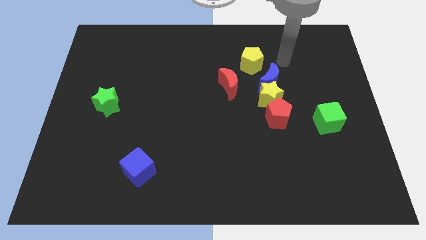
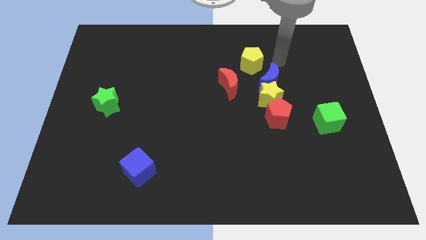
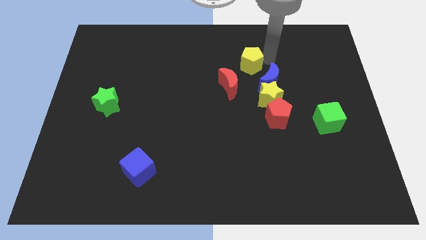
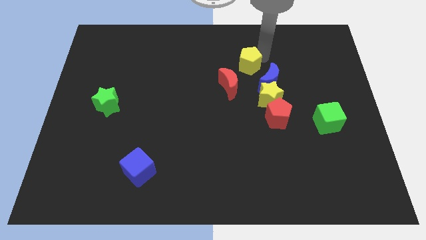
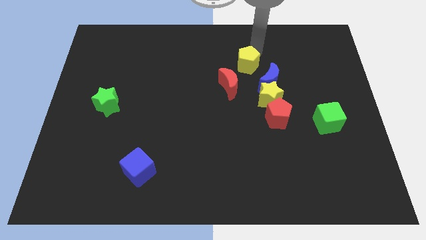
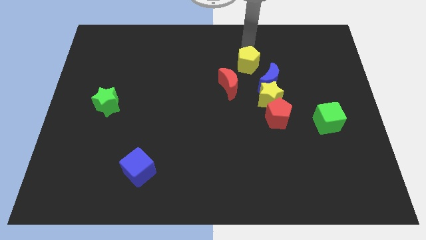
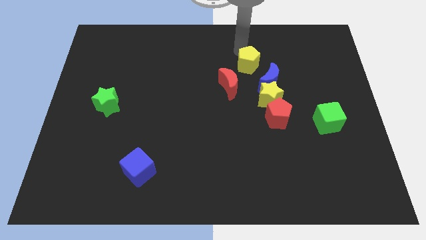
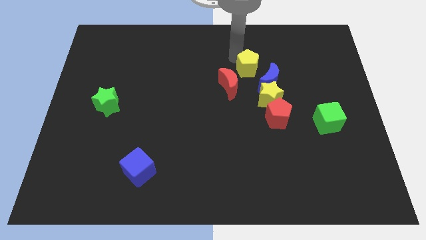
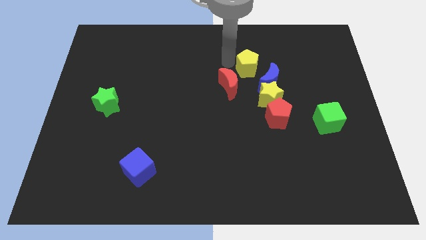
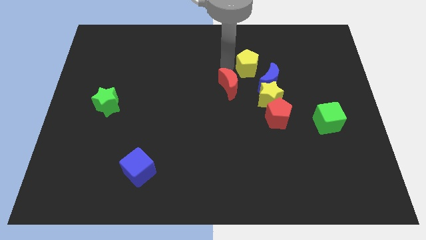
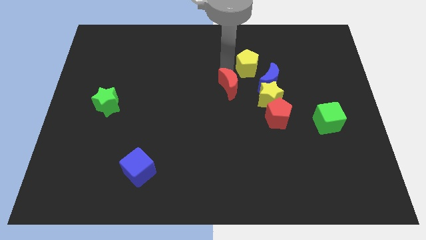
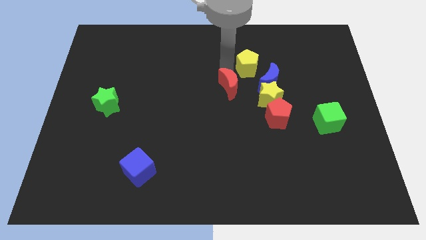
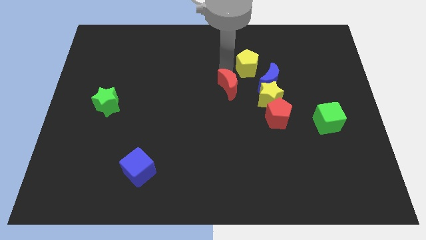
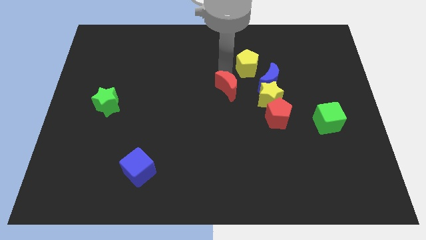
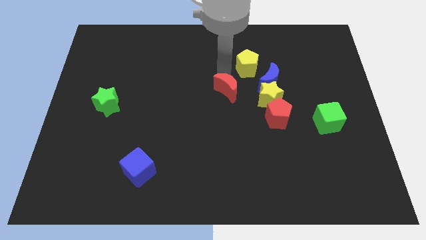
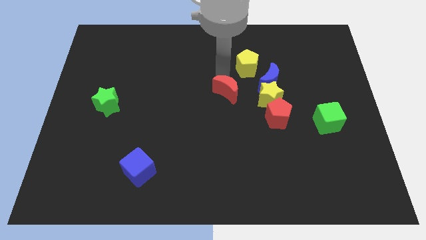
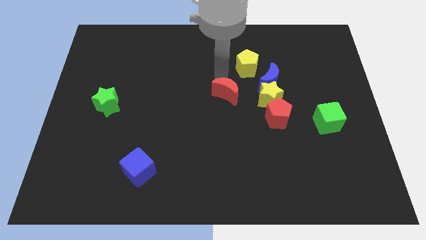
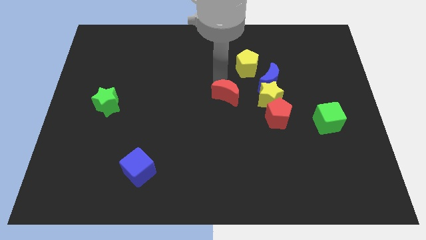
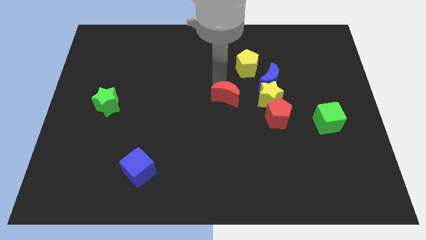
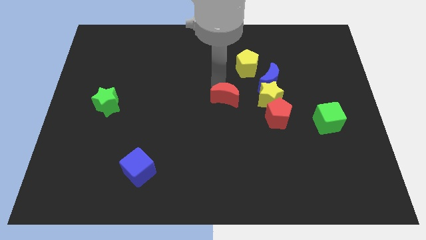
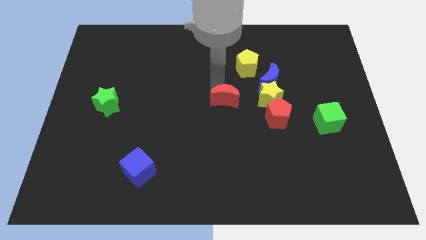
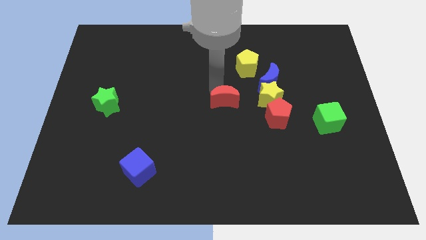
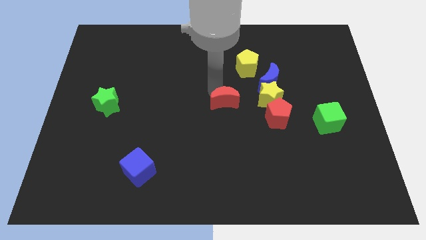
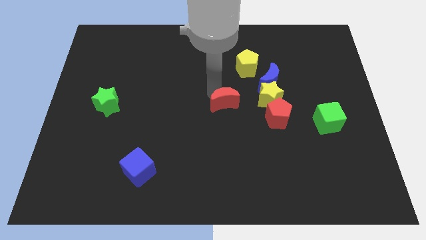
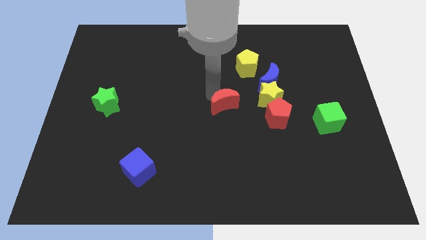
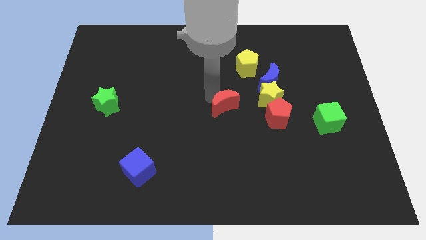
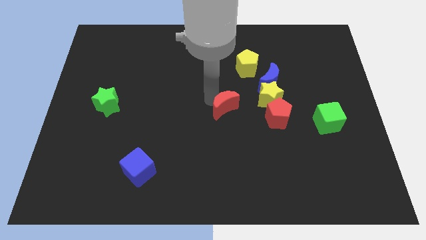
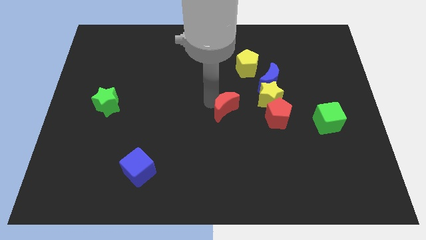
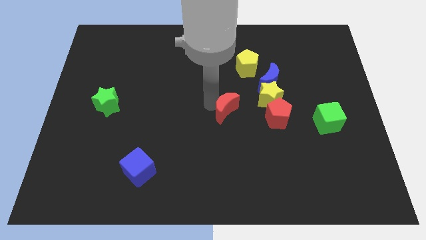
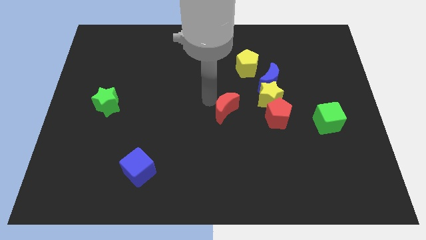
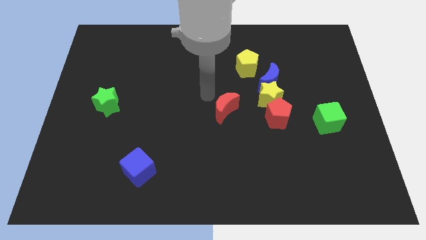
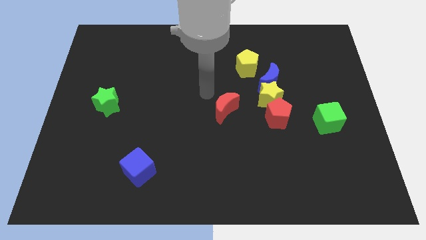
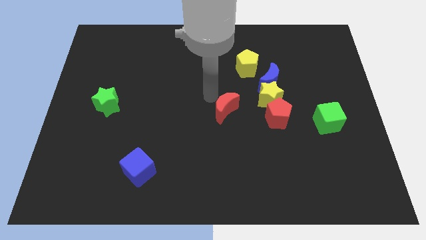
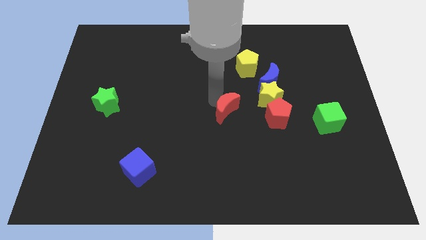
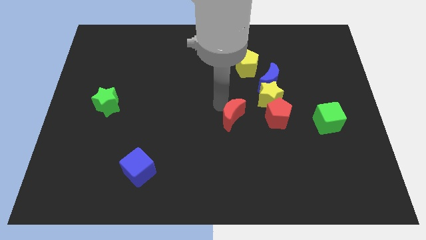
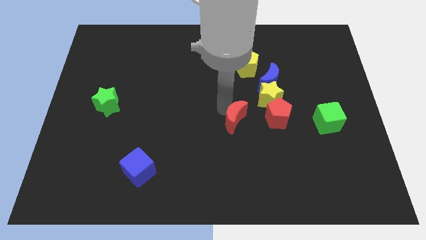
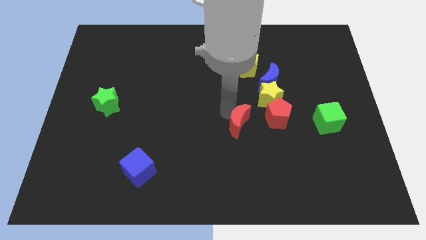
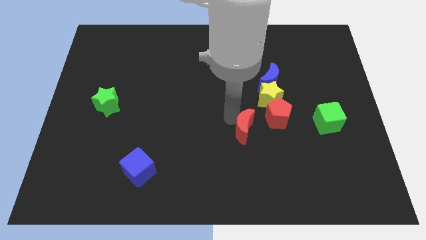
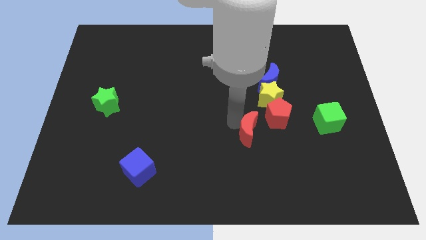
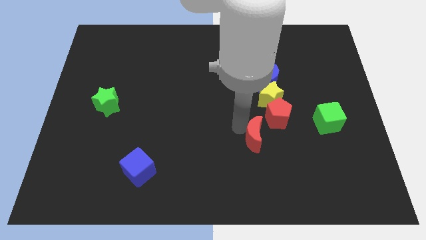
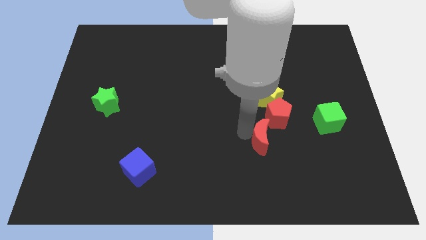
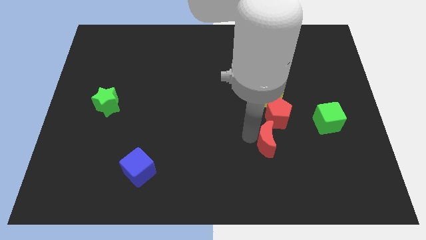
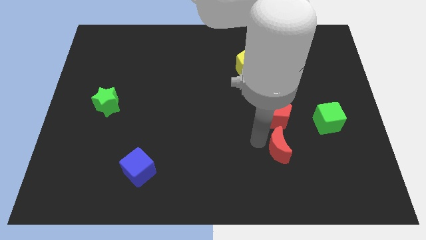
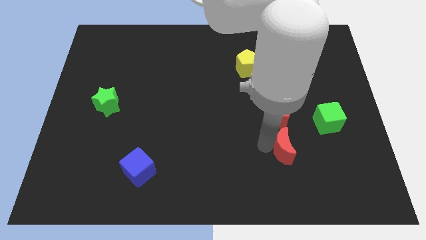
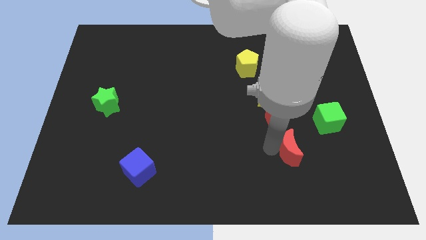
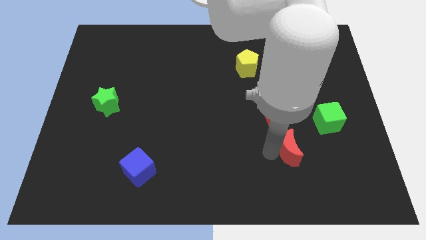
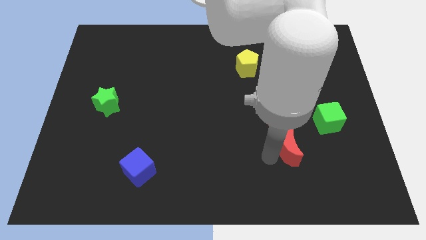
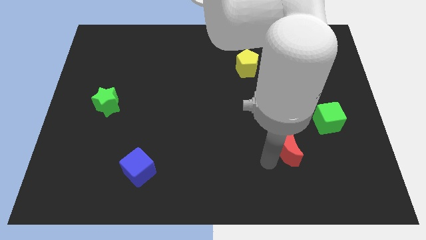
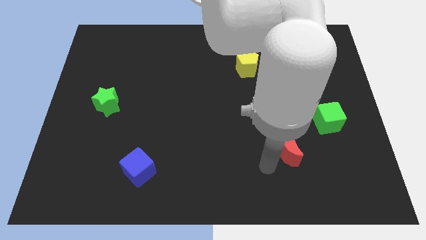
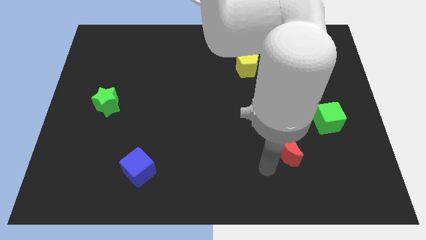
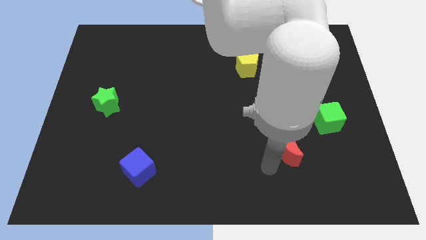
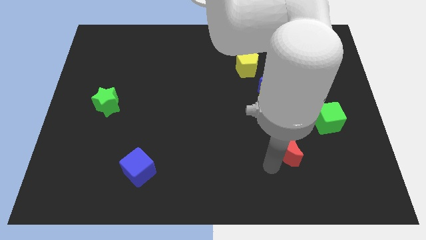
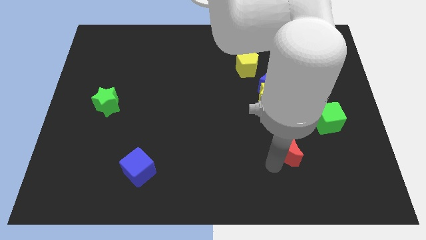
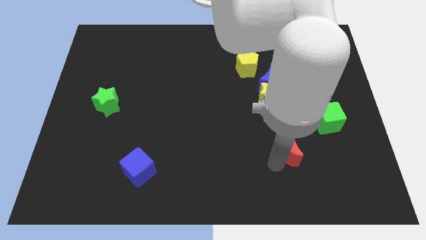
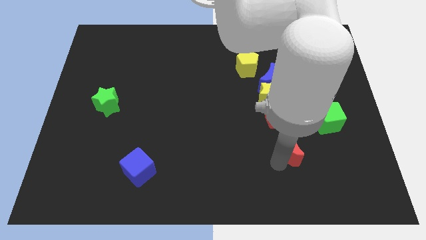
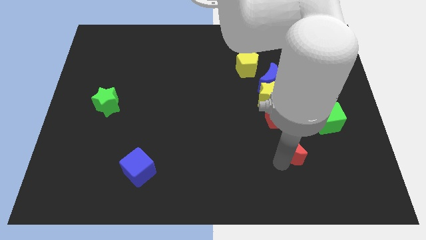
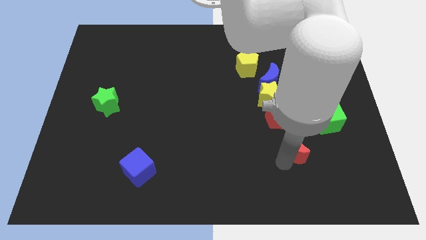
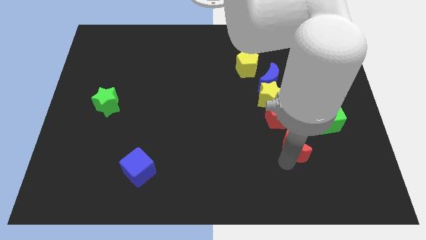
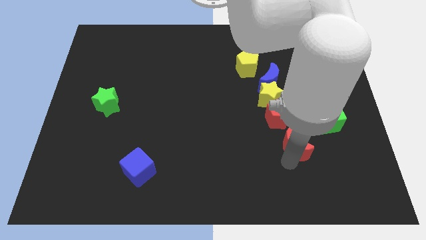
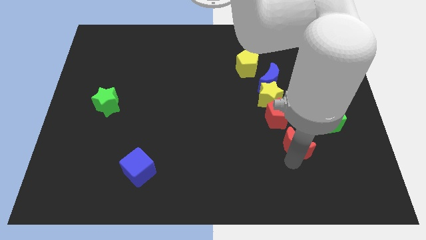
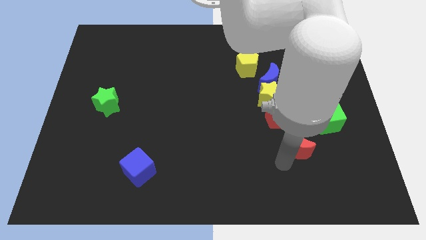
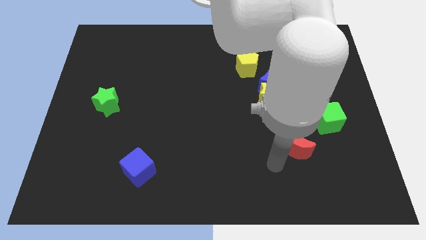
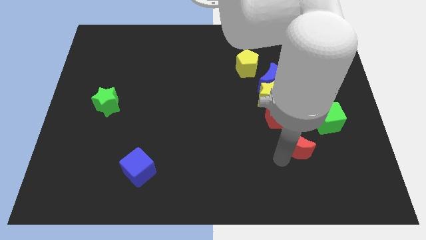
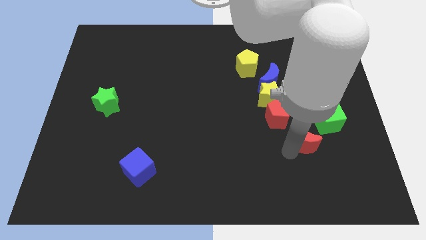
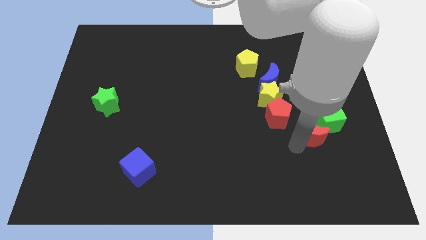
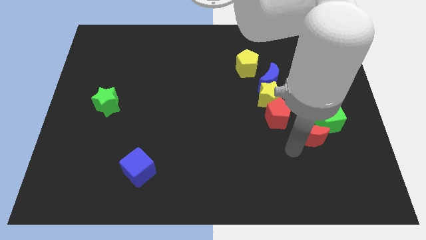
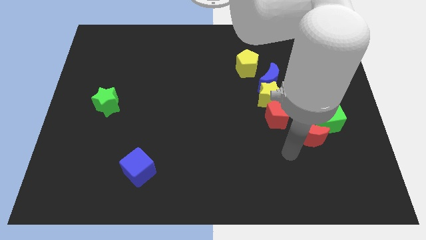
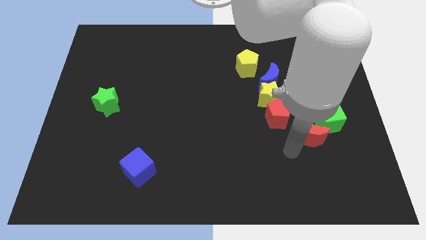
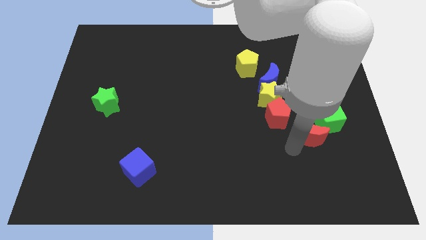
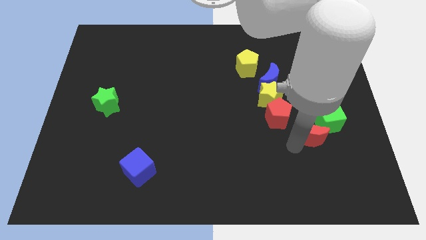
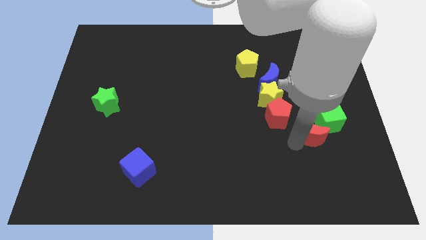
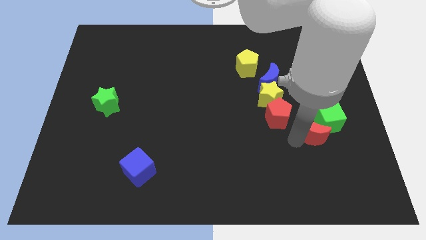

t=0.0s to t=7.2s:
move the red moon towards the green cube
